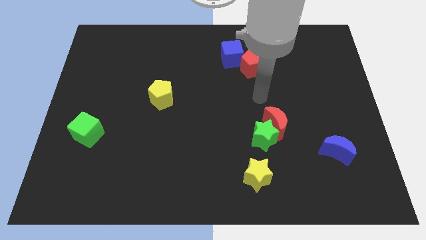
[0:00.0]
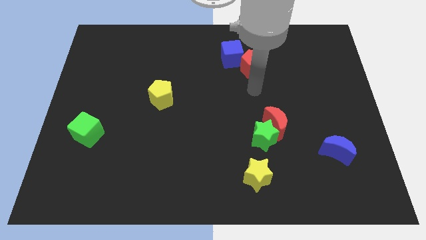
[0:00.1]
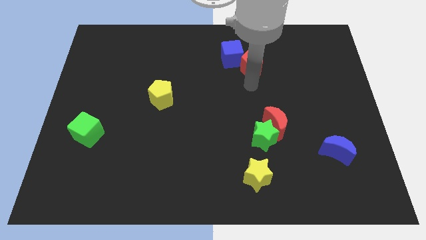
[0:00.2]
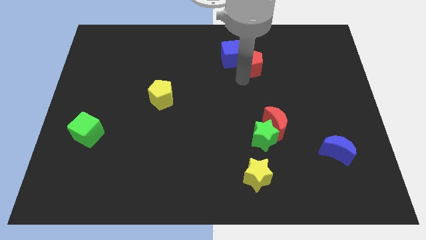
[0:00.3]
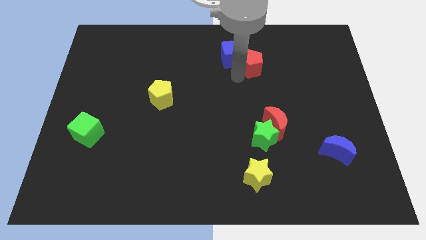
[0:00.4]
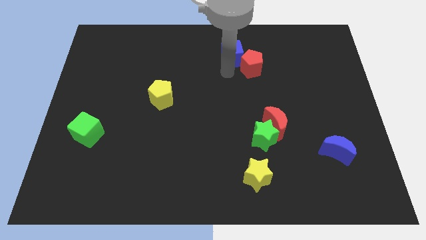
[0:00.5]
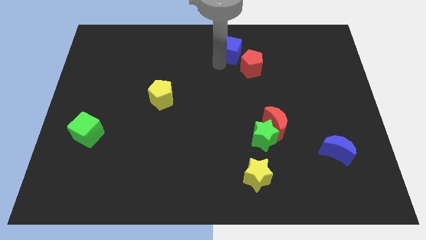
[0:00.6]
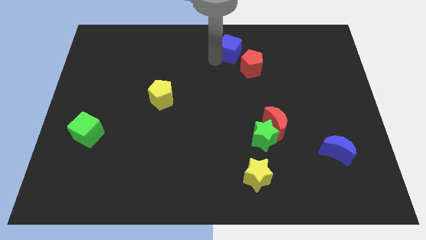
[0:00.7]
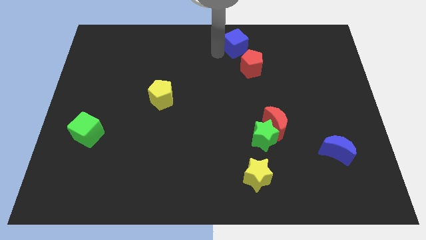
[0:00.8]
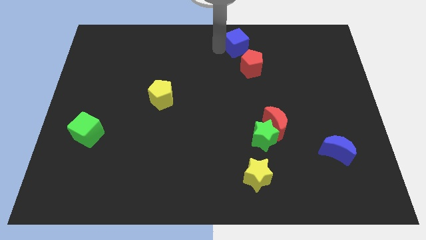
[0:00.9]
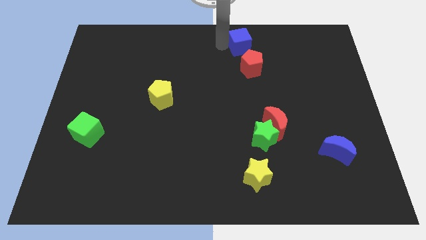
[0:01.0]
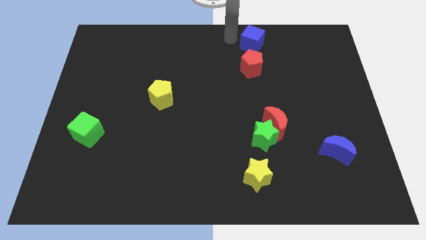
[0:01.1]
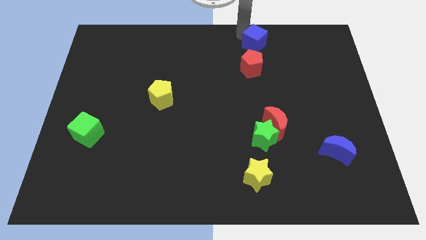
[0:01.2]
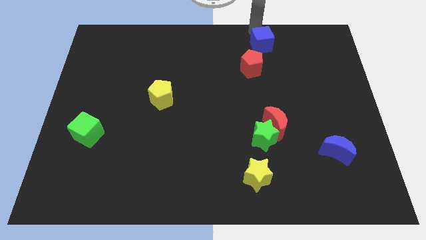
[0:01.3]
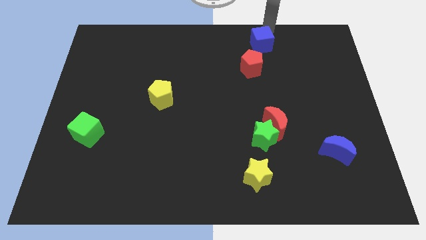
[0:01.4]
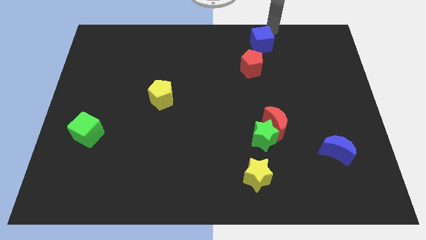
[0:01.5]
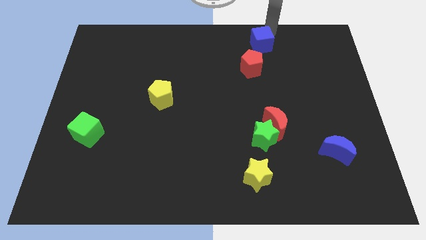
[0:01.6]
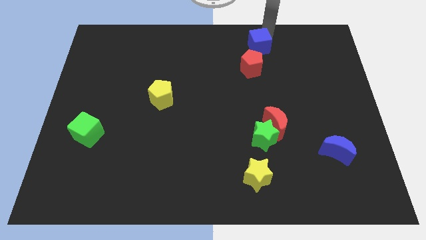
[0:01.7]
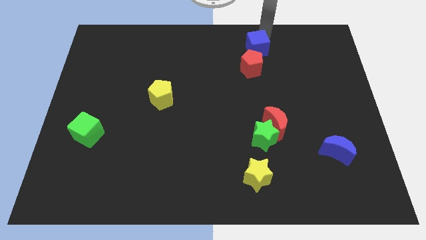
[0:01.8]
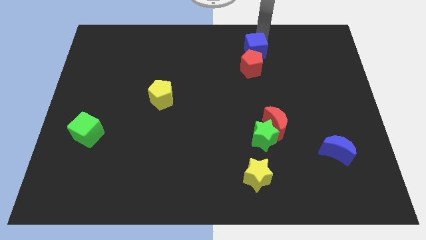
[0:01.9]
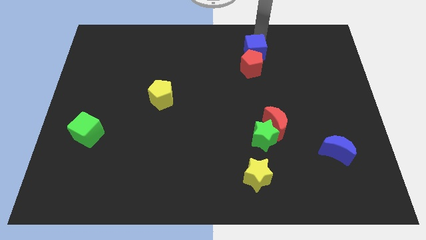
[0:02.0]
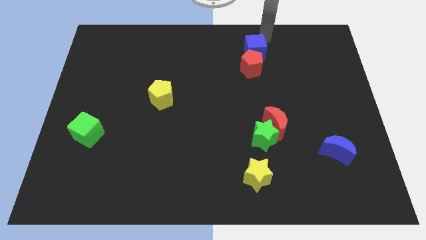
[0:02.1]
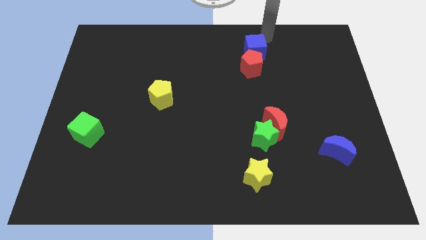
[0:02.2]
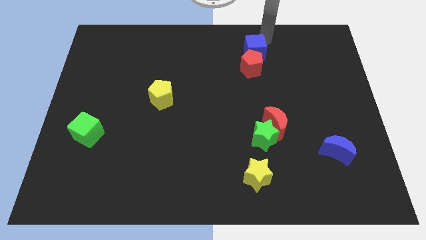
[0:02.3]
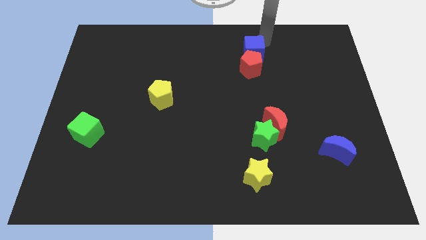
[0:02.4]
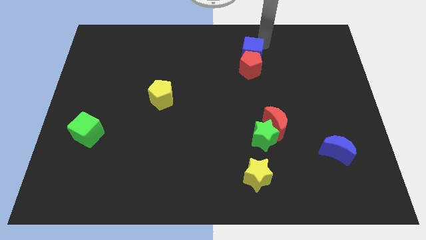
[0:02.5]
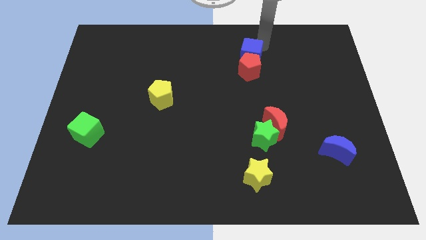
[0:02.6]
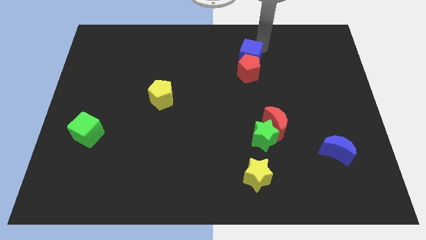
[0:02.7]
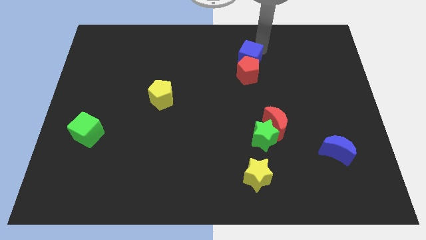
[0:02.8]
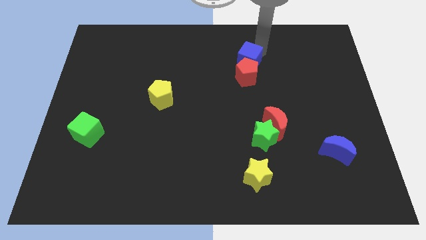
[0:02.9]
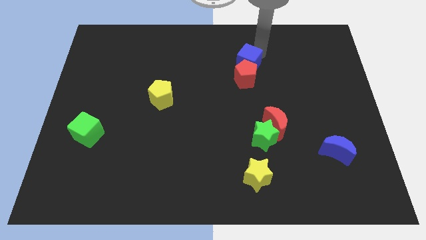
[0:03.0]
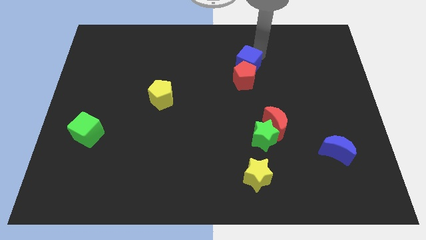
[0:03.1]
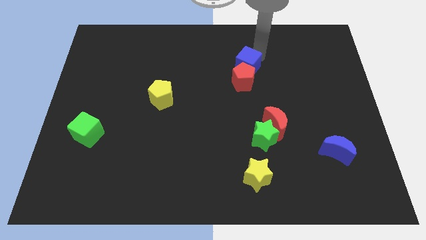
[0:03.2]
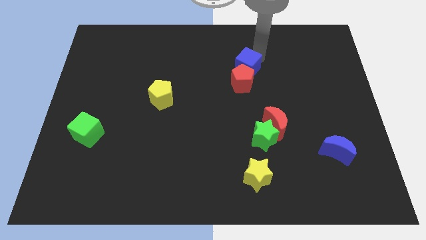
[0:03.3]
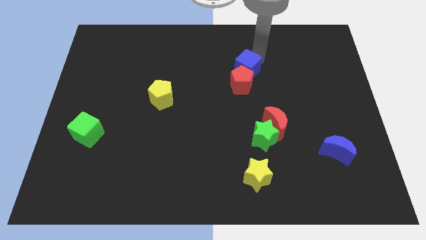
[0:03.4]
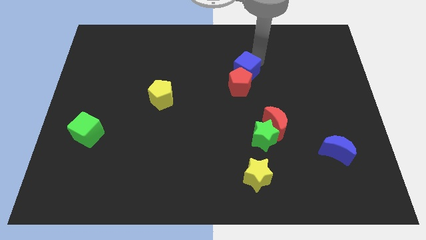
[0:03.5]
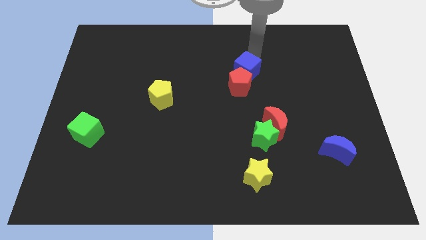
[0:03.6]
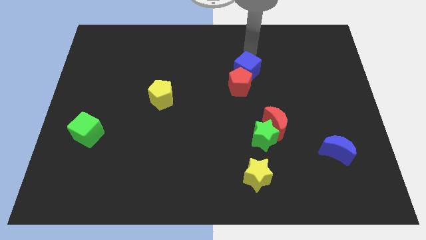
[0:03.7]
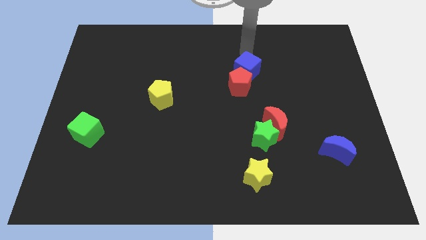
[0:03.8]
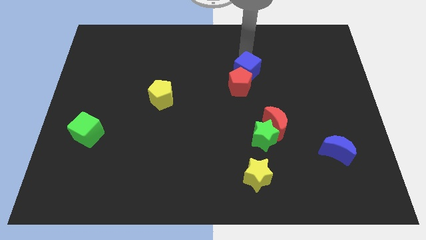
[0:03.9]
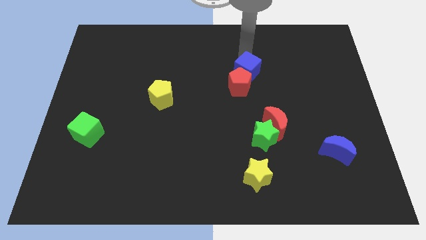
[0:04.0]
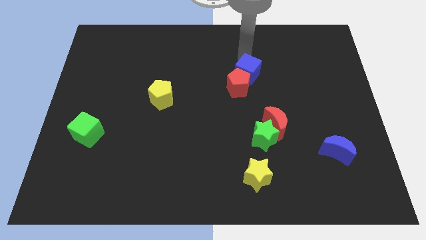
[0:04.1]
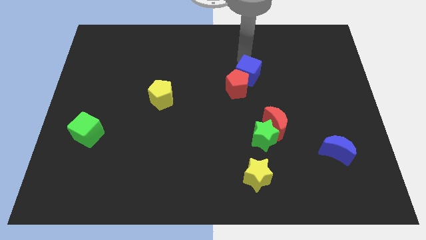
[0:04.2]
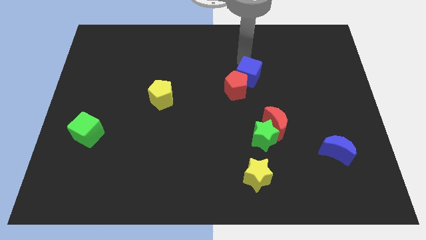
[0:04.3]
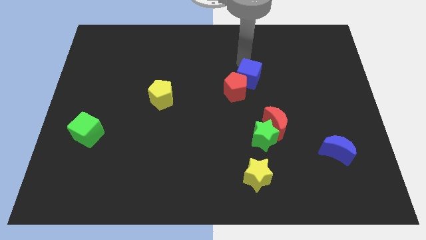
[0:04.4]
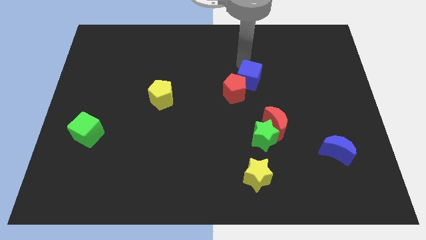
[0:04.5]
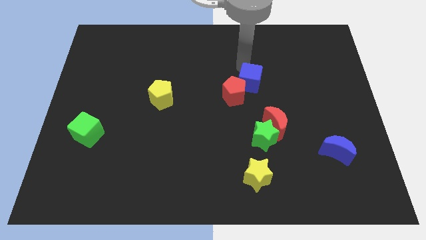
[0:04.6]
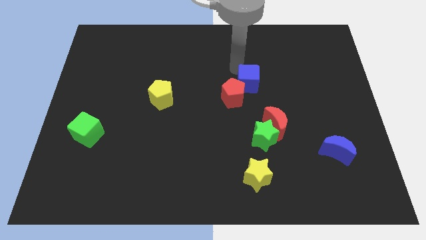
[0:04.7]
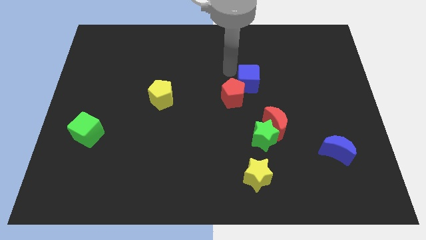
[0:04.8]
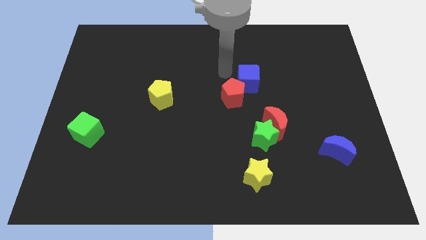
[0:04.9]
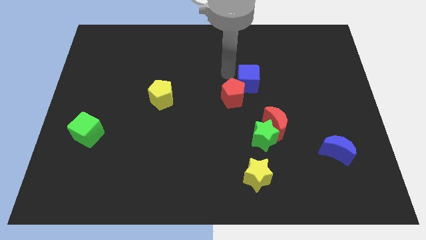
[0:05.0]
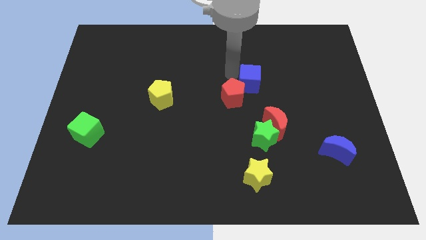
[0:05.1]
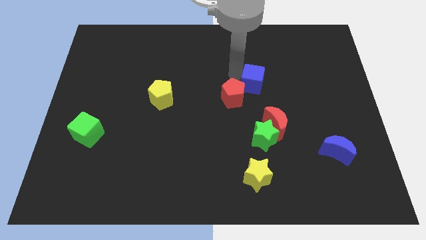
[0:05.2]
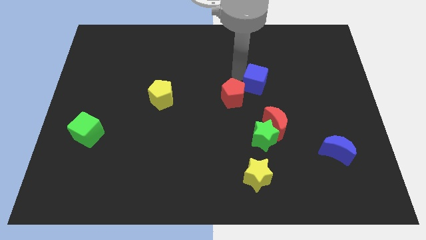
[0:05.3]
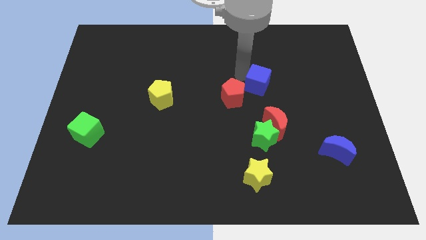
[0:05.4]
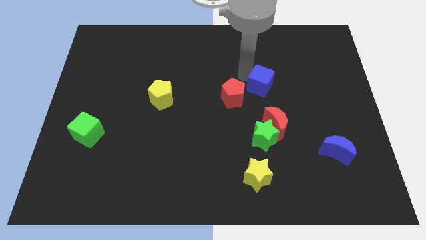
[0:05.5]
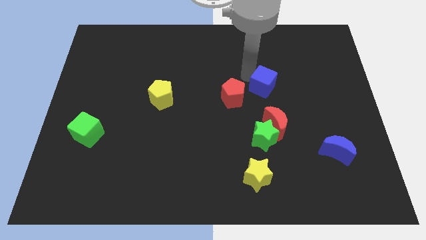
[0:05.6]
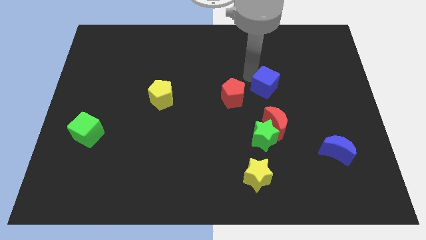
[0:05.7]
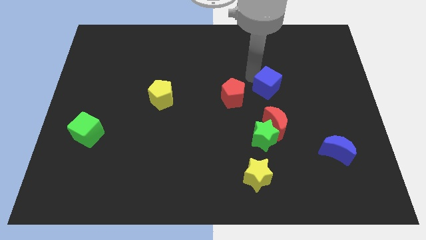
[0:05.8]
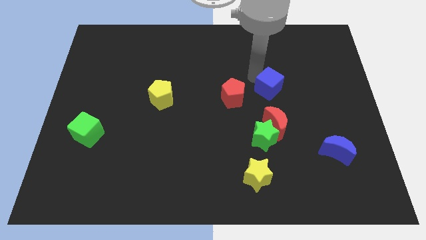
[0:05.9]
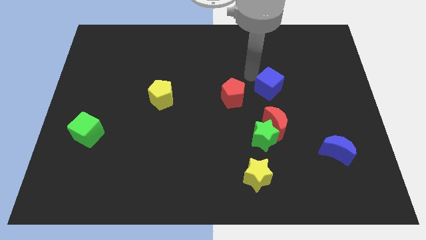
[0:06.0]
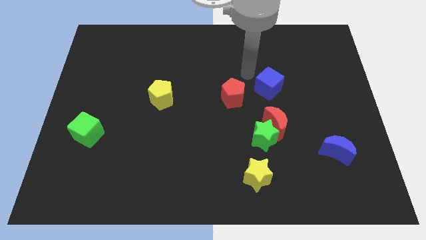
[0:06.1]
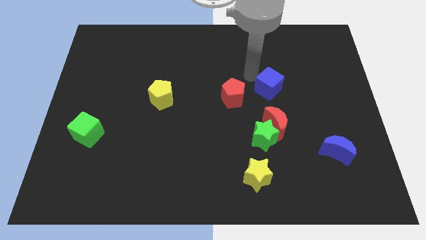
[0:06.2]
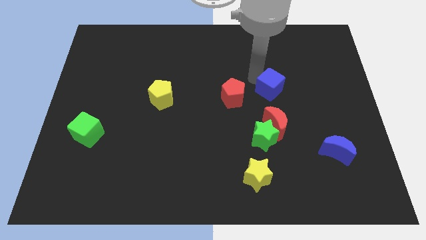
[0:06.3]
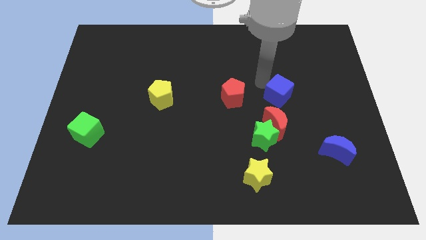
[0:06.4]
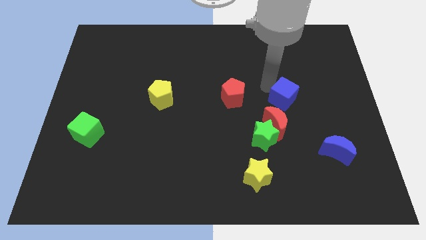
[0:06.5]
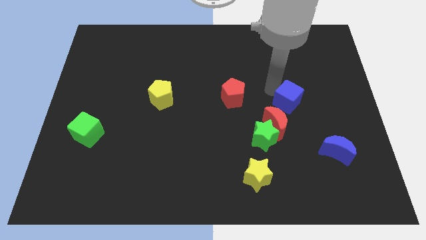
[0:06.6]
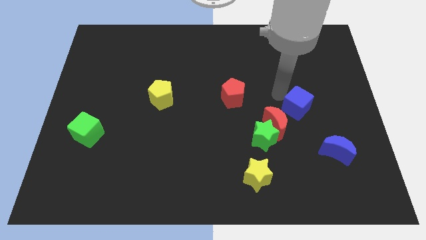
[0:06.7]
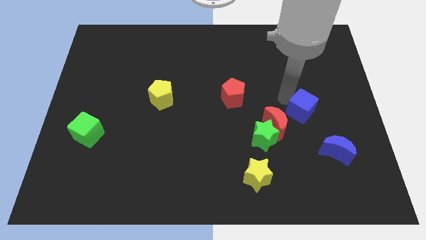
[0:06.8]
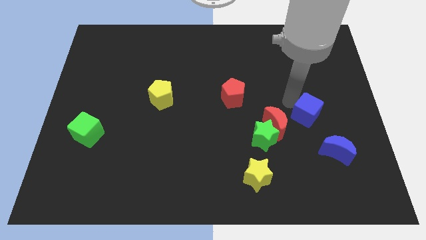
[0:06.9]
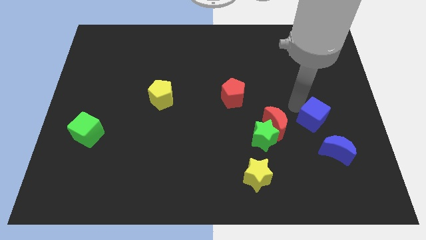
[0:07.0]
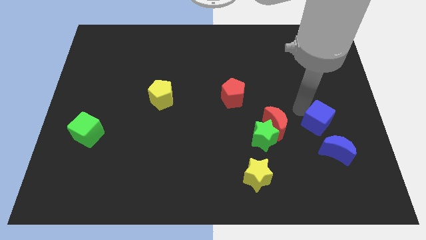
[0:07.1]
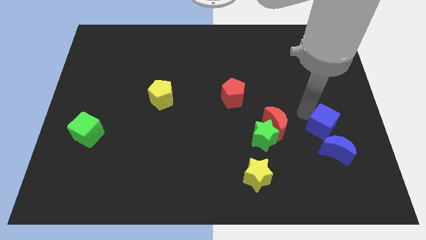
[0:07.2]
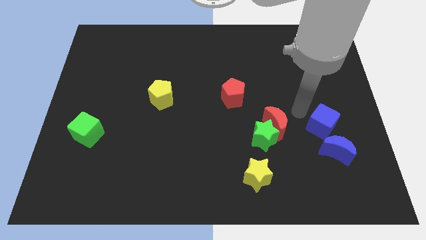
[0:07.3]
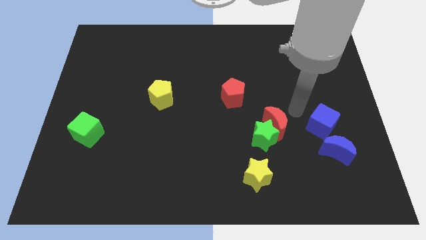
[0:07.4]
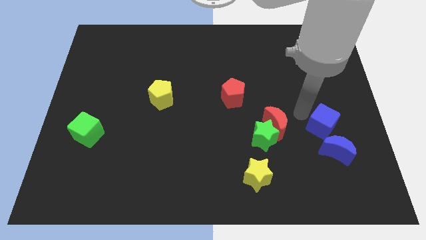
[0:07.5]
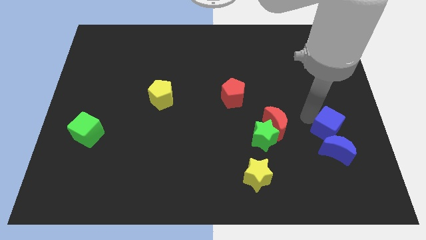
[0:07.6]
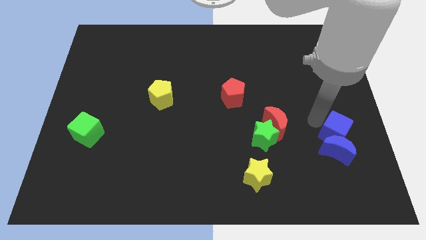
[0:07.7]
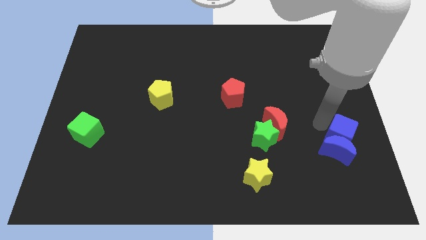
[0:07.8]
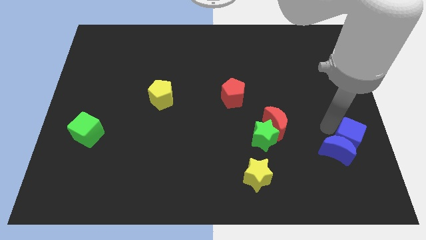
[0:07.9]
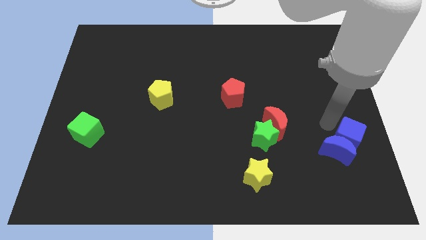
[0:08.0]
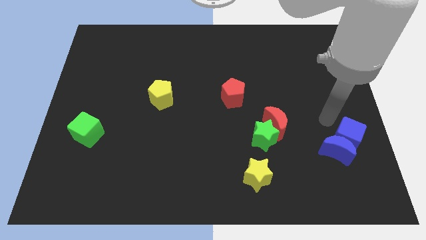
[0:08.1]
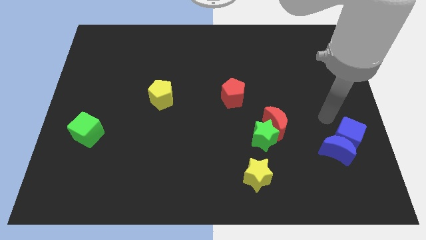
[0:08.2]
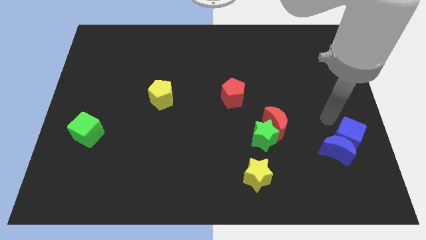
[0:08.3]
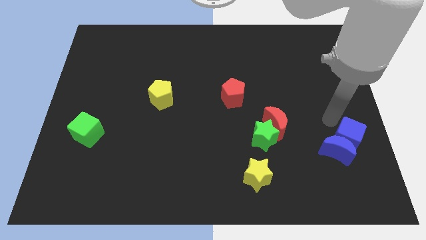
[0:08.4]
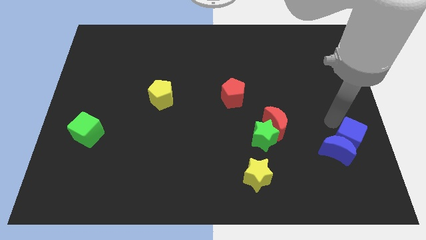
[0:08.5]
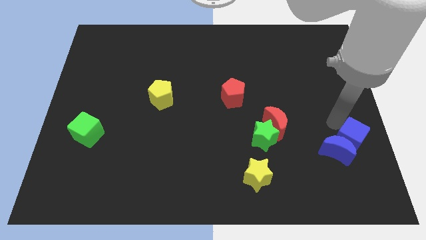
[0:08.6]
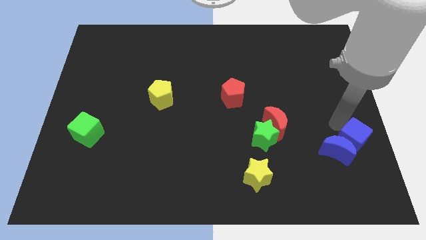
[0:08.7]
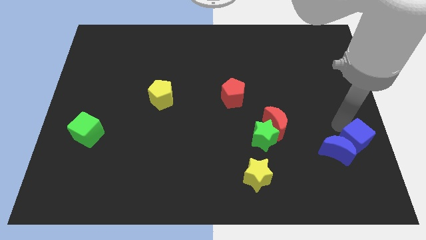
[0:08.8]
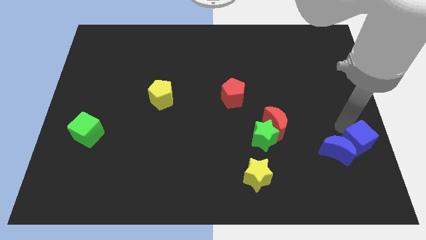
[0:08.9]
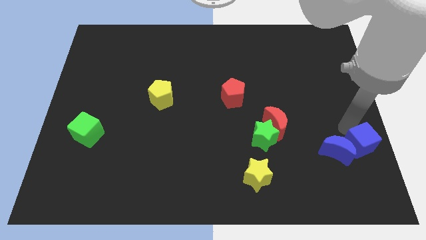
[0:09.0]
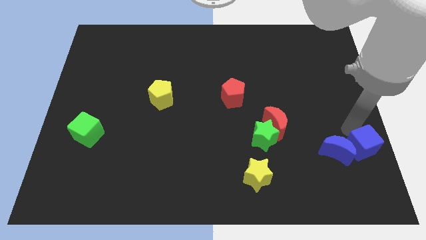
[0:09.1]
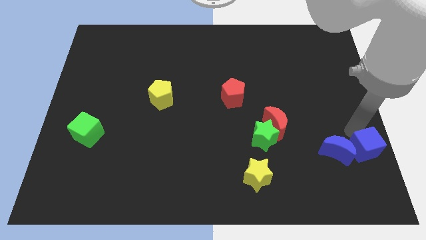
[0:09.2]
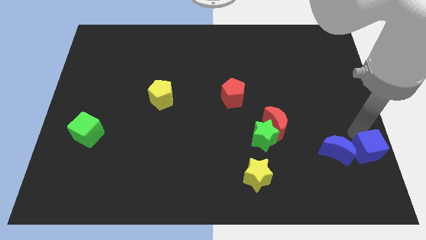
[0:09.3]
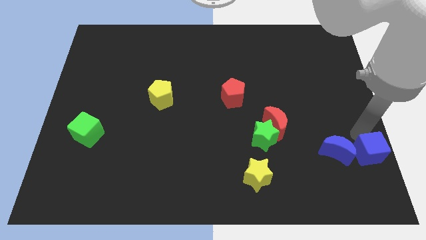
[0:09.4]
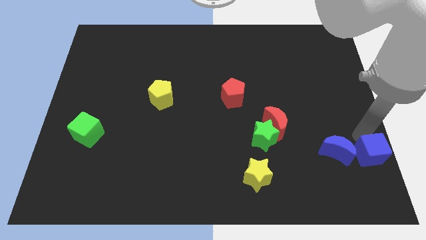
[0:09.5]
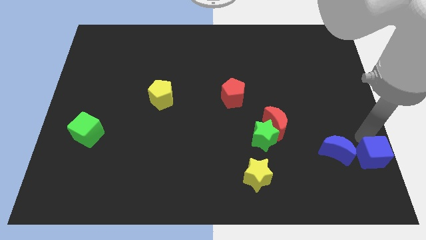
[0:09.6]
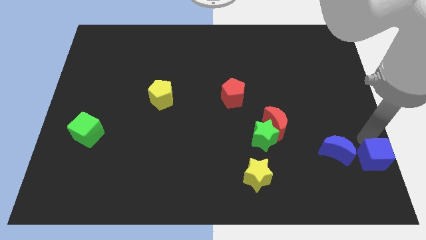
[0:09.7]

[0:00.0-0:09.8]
put the blue cube to the bottom right of the board
